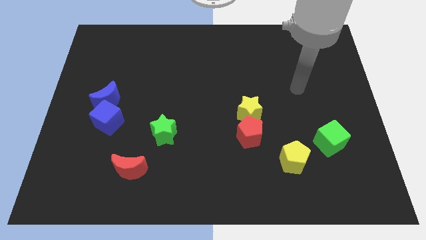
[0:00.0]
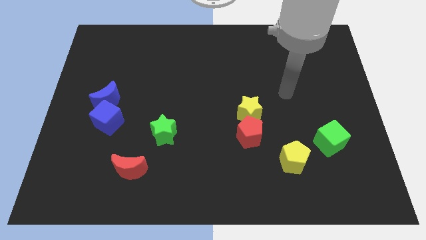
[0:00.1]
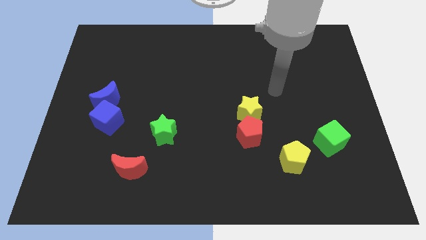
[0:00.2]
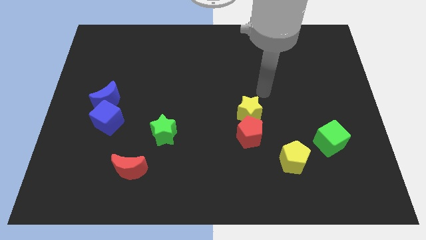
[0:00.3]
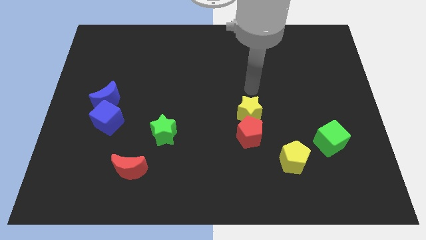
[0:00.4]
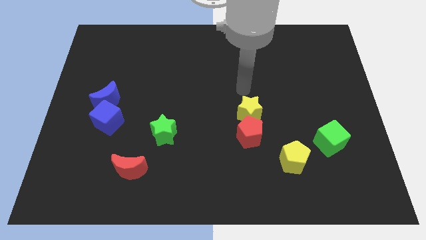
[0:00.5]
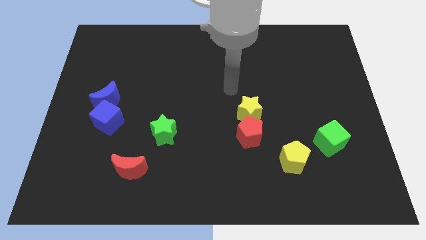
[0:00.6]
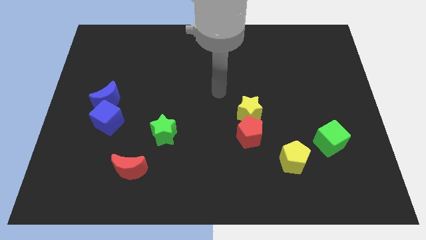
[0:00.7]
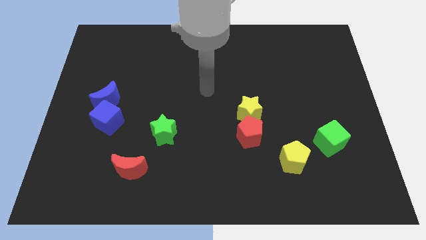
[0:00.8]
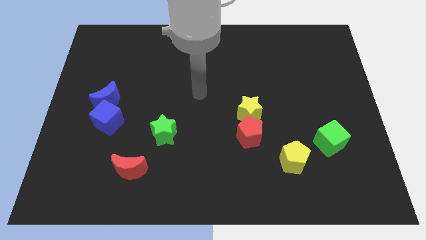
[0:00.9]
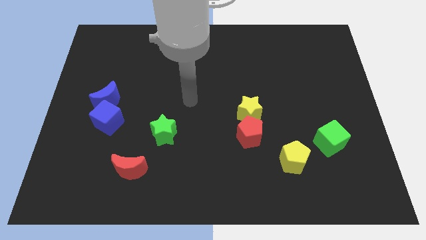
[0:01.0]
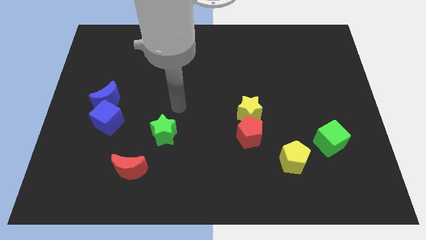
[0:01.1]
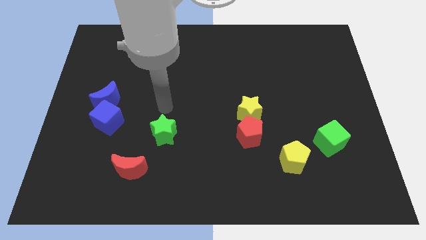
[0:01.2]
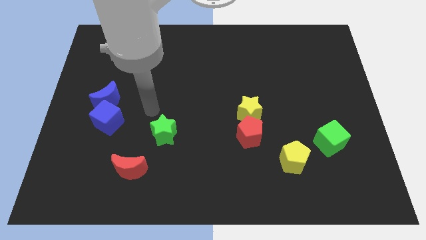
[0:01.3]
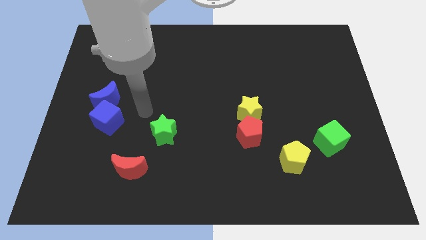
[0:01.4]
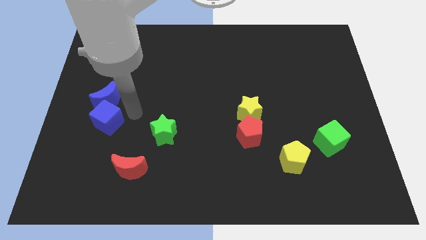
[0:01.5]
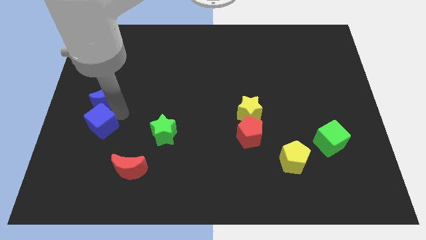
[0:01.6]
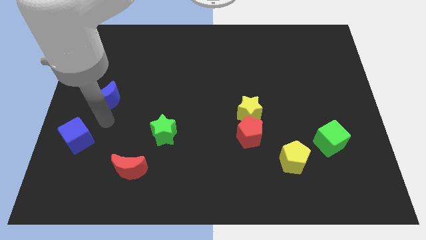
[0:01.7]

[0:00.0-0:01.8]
move the blue moon away from the blue cube

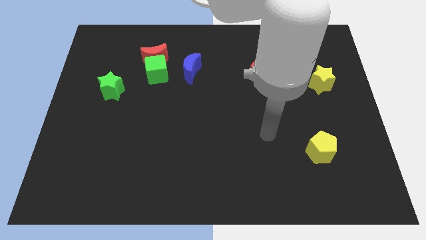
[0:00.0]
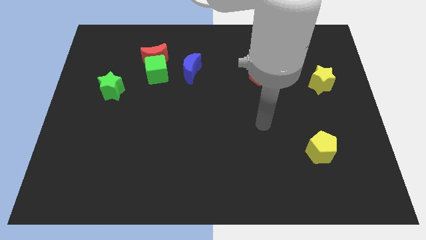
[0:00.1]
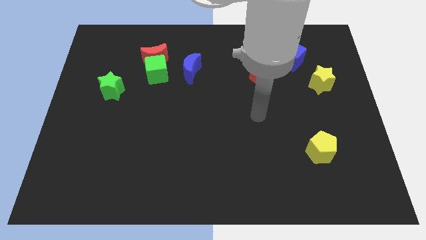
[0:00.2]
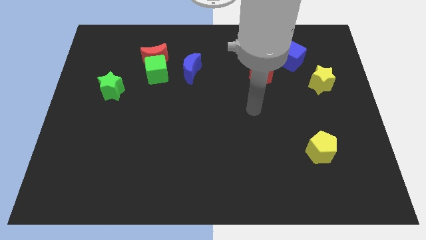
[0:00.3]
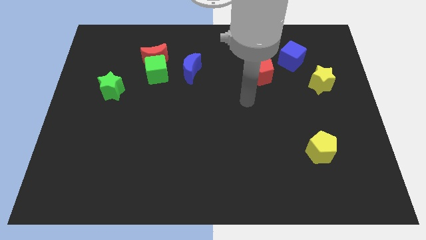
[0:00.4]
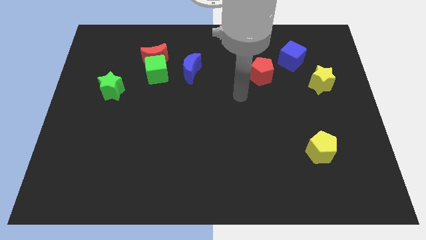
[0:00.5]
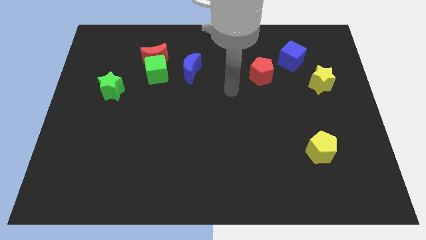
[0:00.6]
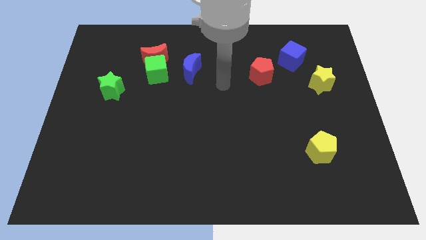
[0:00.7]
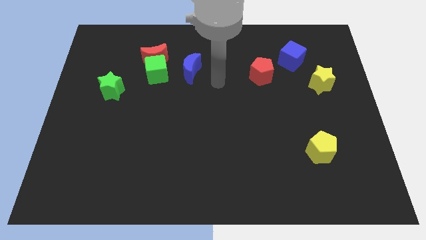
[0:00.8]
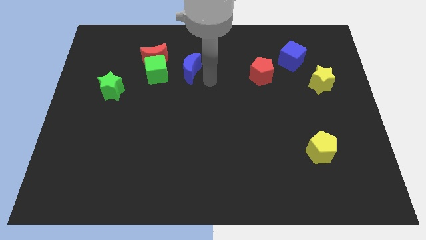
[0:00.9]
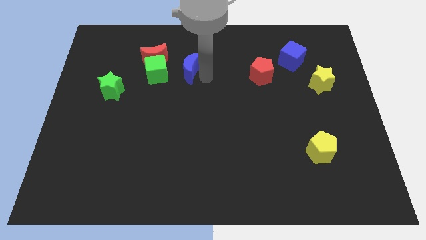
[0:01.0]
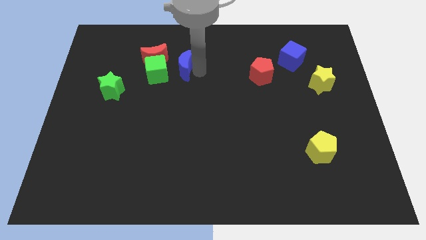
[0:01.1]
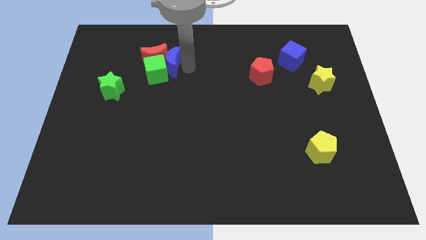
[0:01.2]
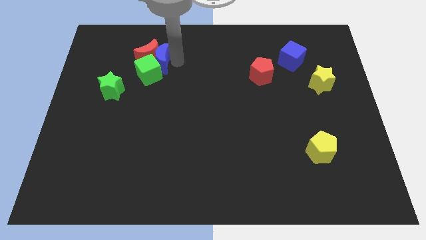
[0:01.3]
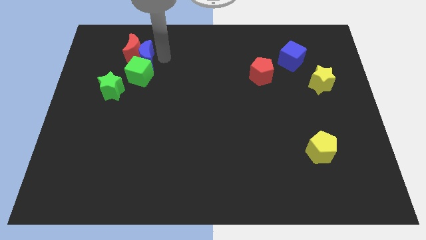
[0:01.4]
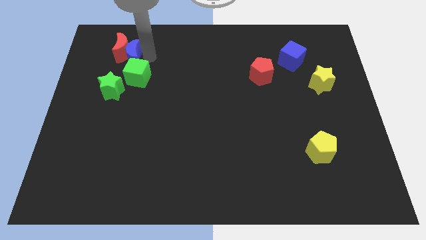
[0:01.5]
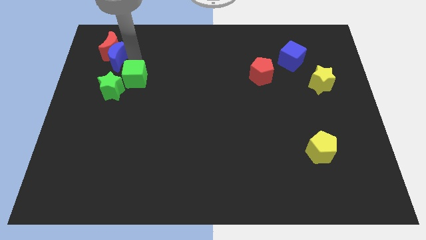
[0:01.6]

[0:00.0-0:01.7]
separate the green cube from the red moon and blue moon

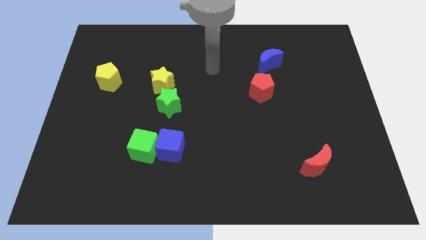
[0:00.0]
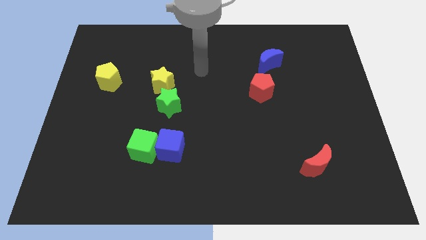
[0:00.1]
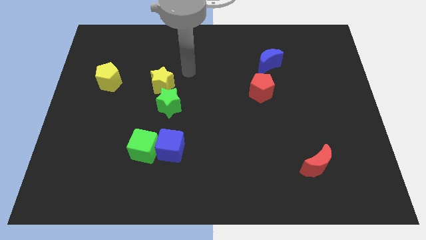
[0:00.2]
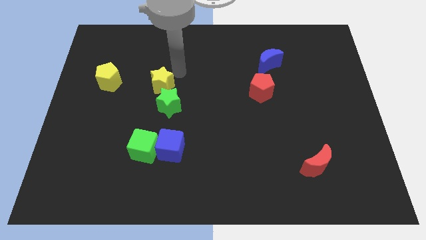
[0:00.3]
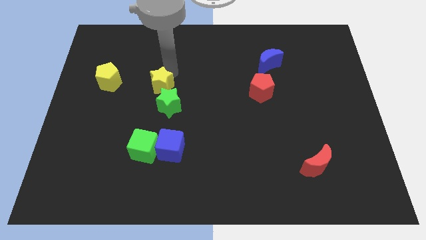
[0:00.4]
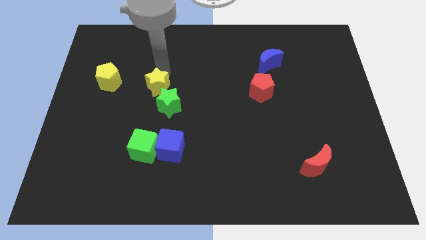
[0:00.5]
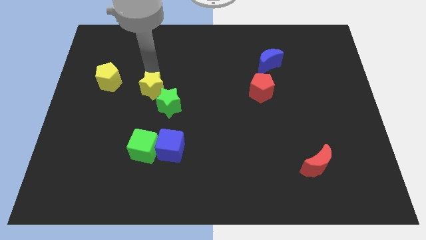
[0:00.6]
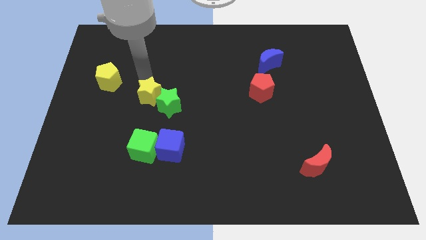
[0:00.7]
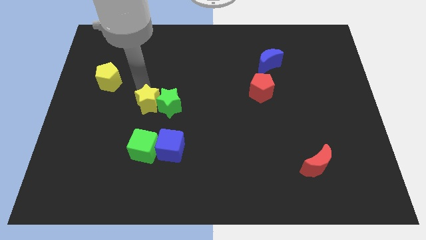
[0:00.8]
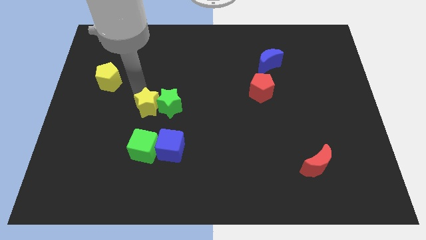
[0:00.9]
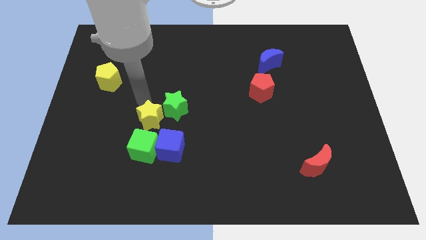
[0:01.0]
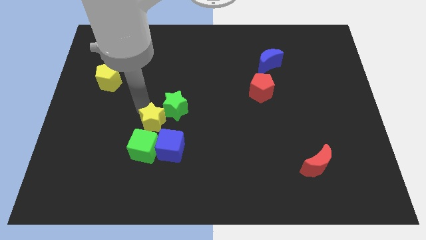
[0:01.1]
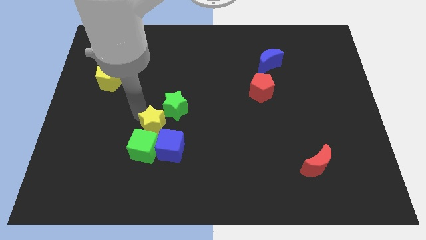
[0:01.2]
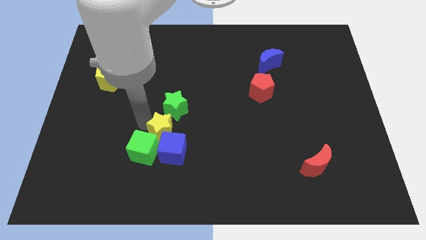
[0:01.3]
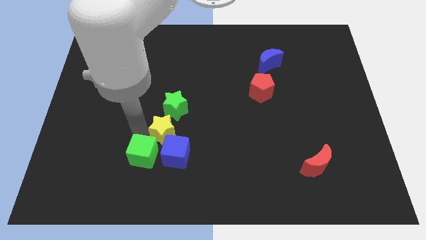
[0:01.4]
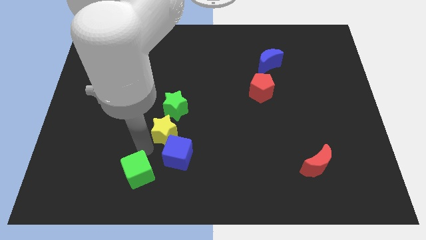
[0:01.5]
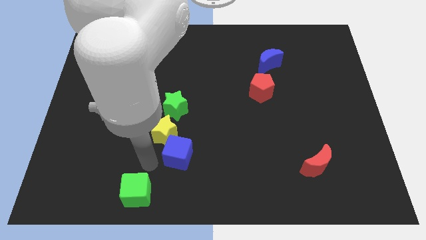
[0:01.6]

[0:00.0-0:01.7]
separate the blue cube from the green cube

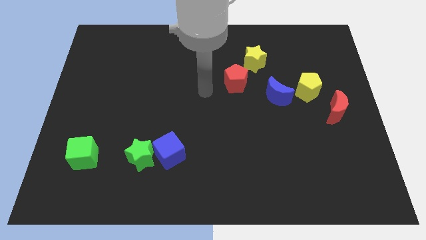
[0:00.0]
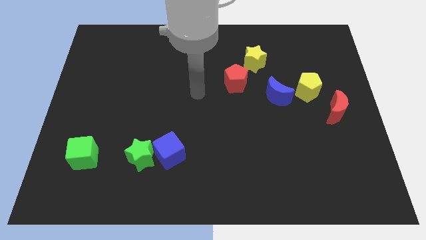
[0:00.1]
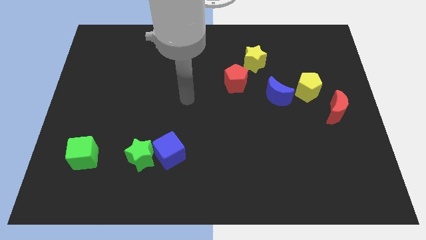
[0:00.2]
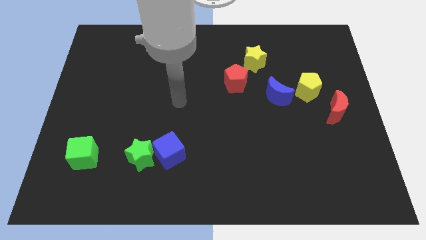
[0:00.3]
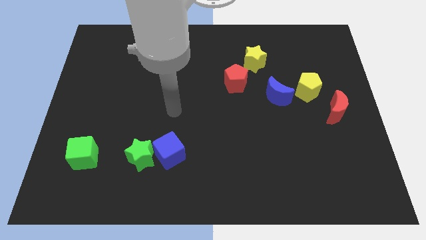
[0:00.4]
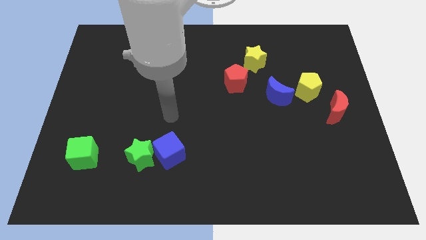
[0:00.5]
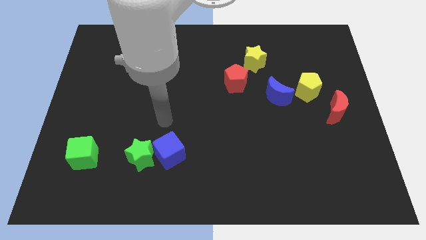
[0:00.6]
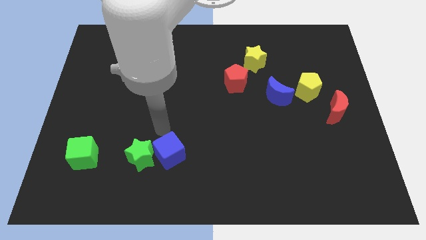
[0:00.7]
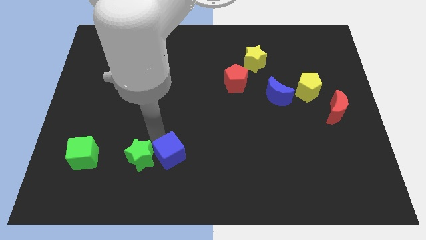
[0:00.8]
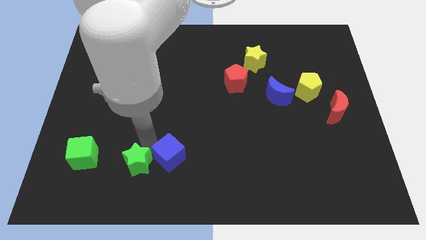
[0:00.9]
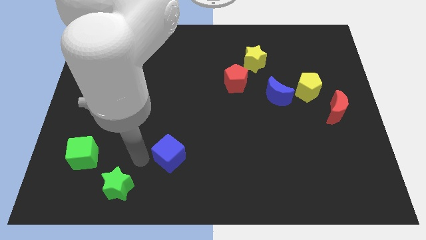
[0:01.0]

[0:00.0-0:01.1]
separate the blue cube from the green star

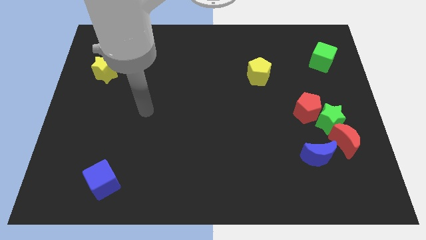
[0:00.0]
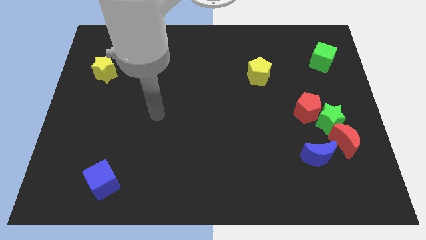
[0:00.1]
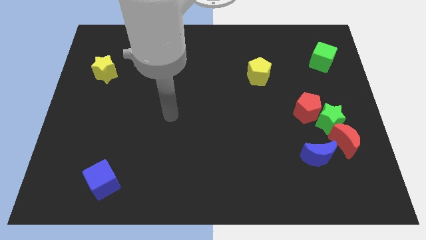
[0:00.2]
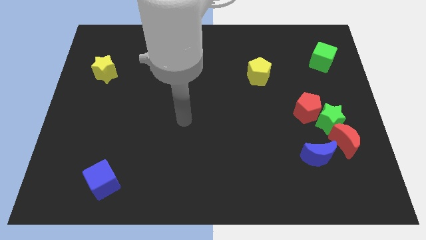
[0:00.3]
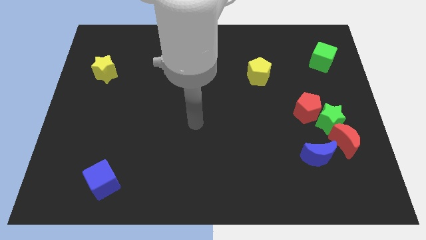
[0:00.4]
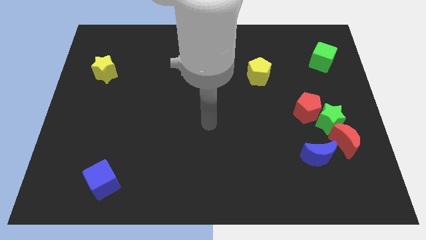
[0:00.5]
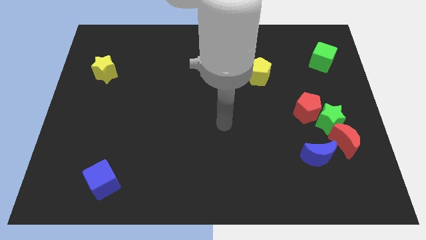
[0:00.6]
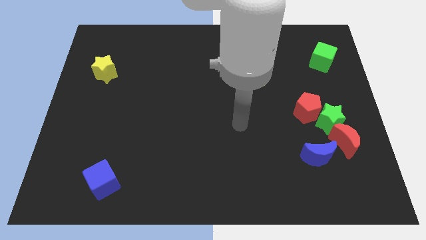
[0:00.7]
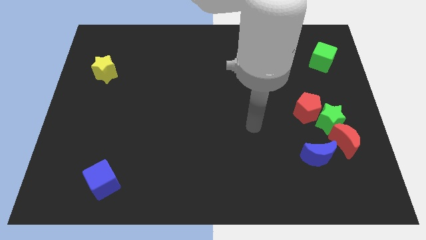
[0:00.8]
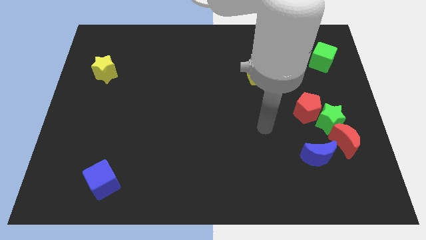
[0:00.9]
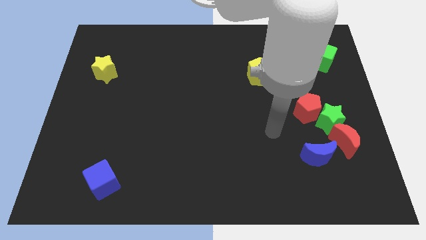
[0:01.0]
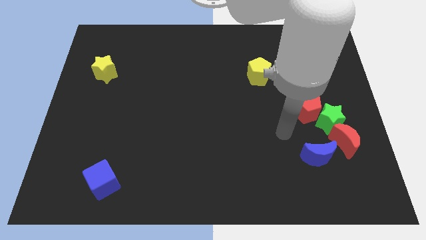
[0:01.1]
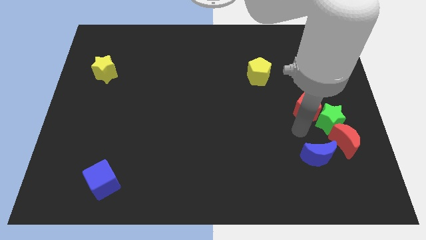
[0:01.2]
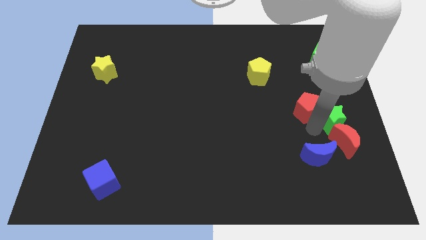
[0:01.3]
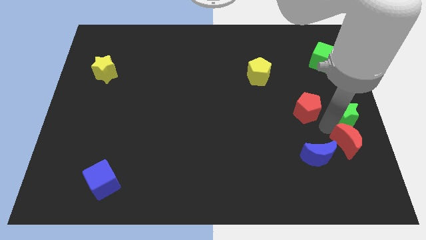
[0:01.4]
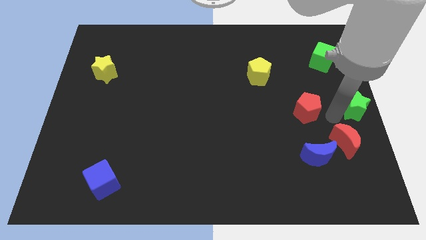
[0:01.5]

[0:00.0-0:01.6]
move the red pentagon away from the green star

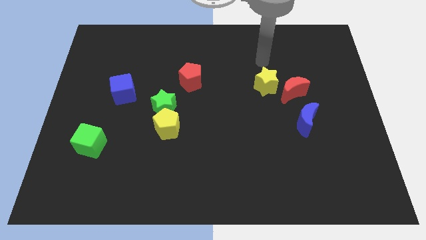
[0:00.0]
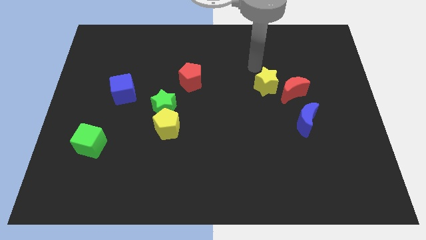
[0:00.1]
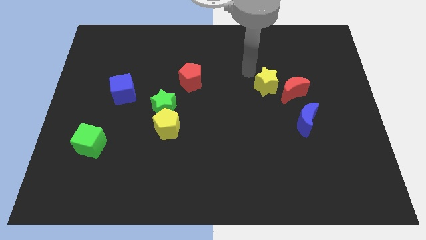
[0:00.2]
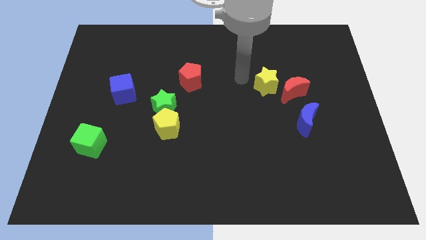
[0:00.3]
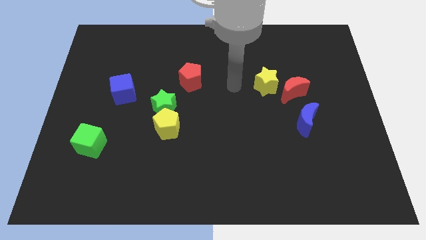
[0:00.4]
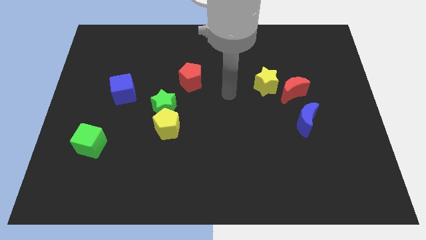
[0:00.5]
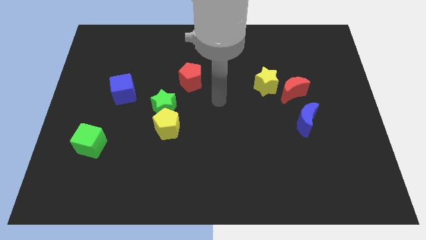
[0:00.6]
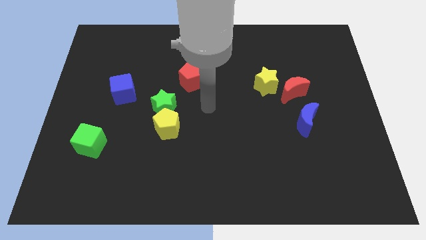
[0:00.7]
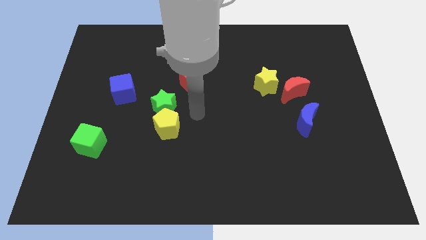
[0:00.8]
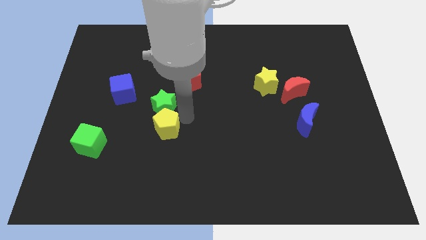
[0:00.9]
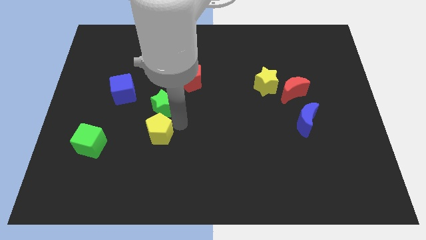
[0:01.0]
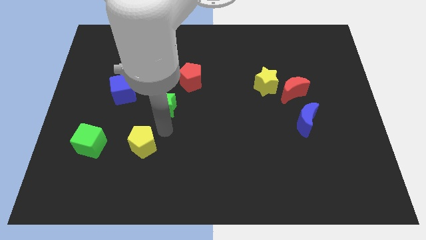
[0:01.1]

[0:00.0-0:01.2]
separate the green star from the yellow pentagon

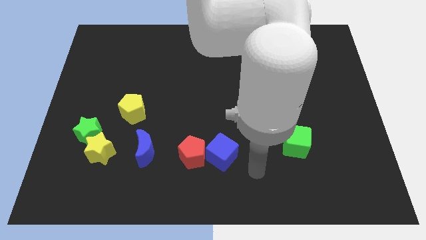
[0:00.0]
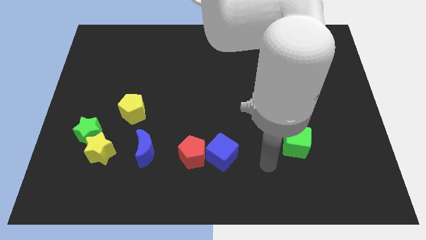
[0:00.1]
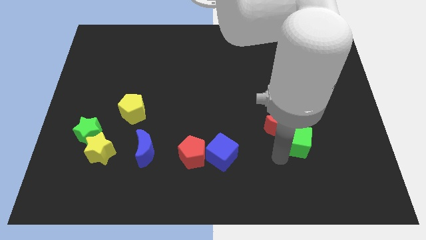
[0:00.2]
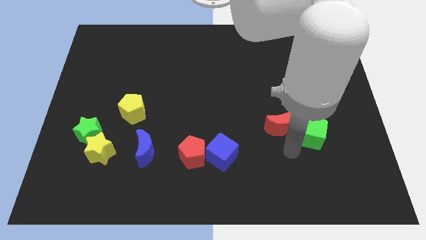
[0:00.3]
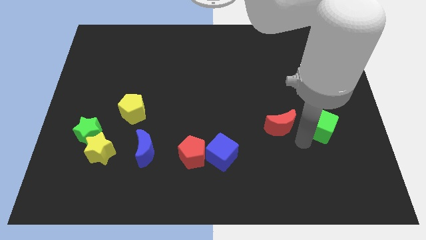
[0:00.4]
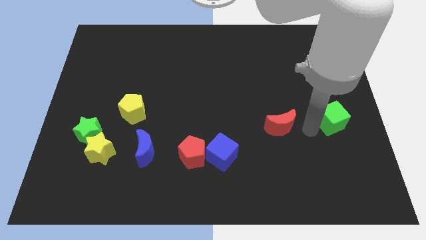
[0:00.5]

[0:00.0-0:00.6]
separate the red moon from the green cube
